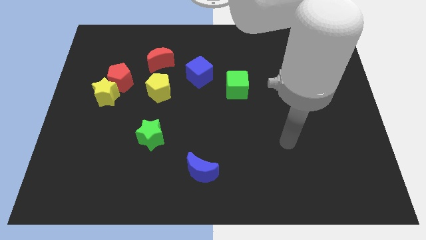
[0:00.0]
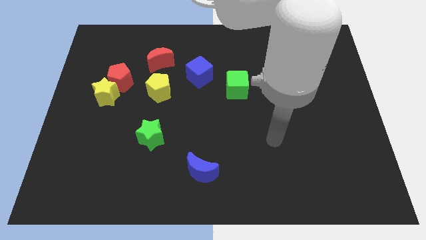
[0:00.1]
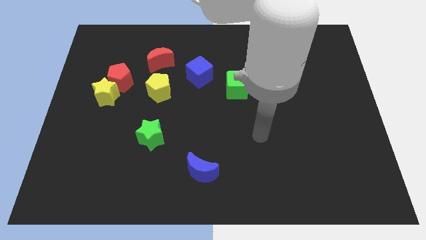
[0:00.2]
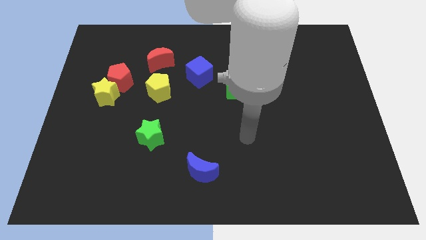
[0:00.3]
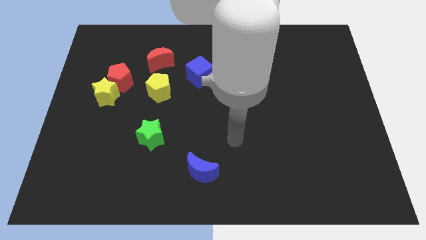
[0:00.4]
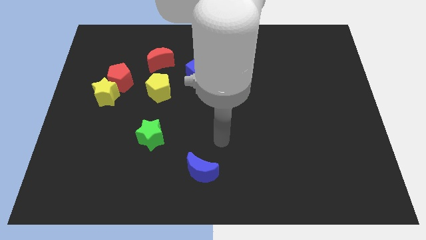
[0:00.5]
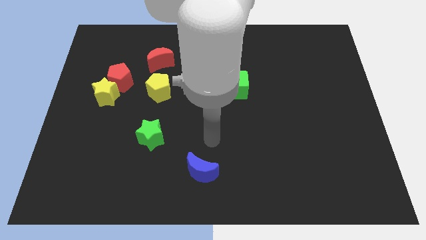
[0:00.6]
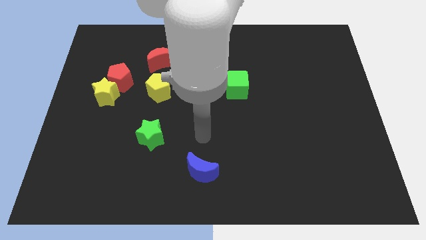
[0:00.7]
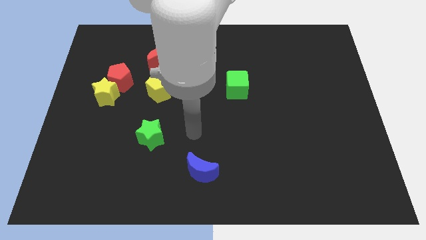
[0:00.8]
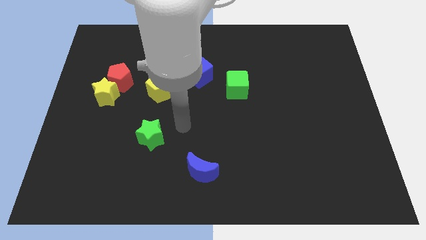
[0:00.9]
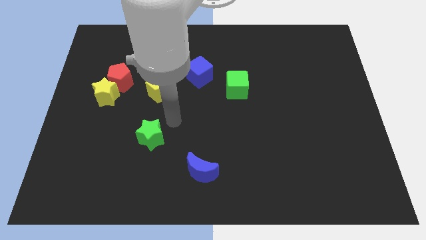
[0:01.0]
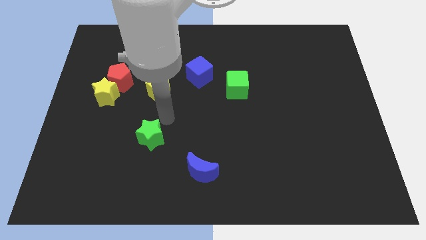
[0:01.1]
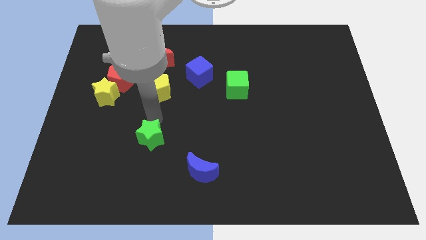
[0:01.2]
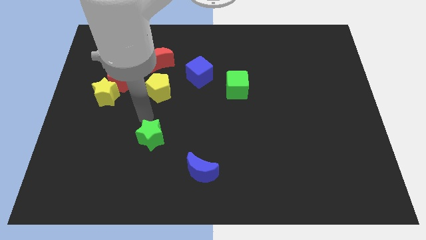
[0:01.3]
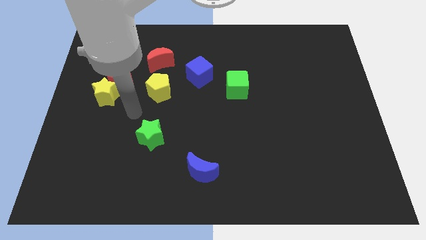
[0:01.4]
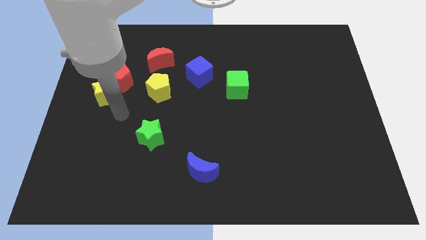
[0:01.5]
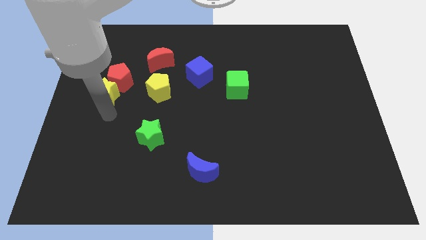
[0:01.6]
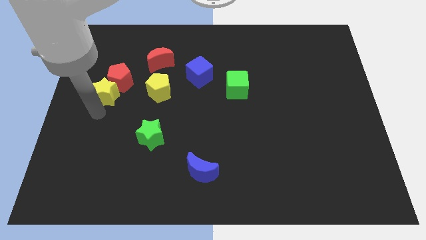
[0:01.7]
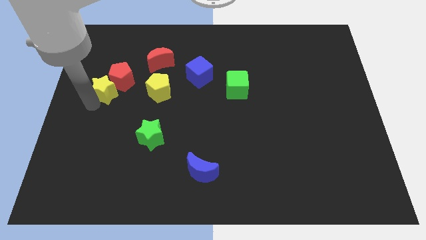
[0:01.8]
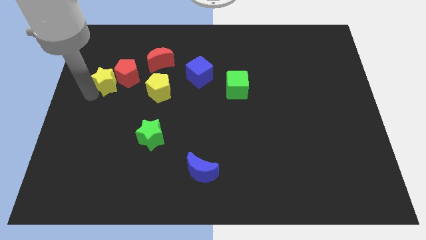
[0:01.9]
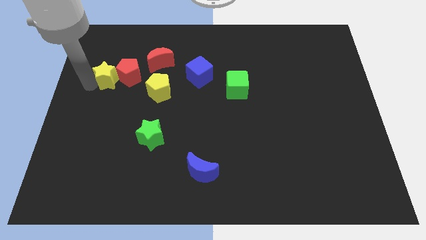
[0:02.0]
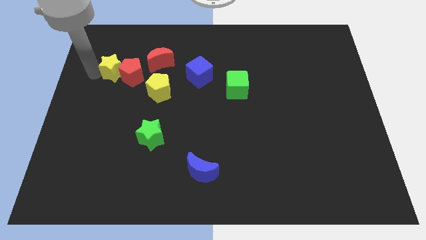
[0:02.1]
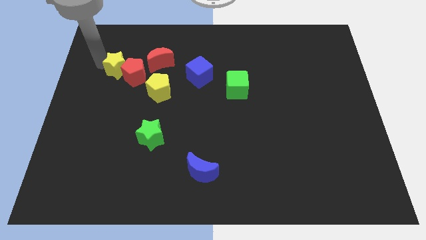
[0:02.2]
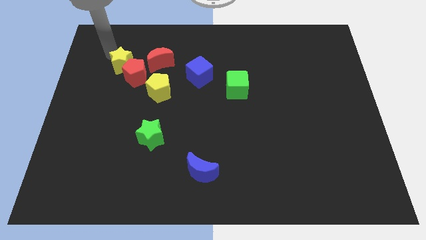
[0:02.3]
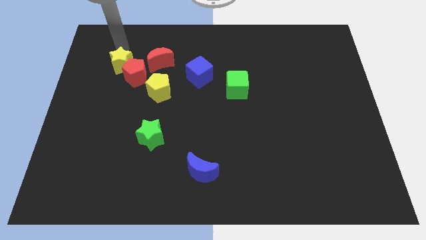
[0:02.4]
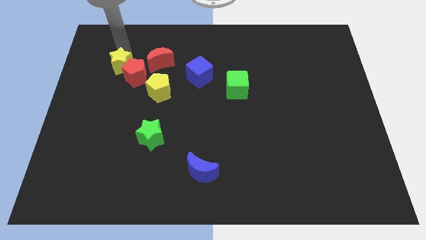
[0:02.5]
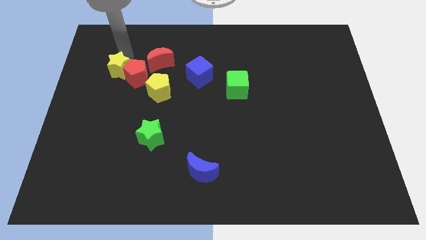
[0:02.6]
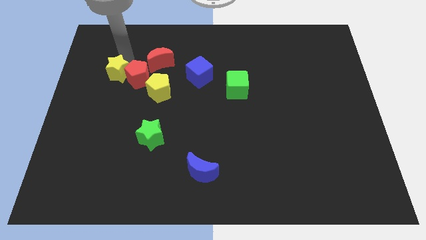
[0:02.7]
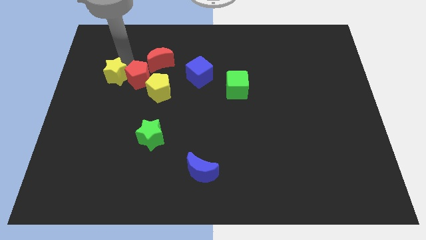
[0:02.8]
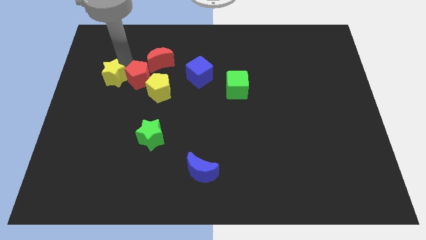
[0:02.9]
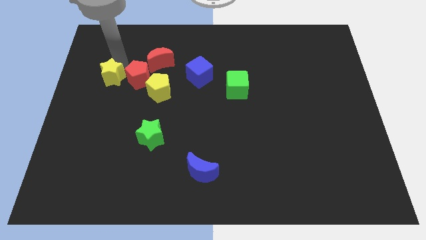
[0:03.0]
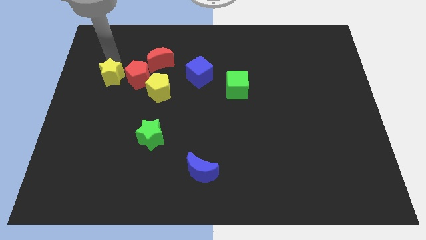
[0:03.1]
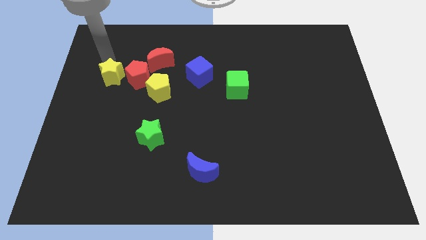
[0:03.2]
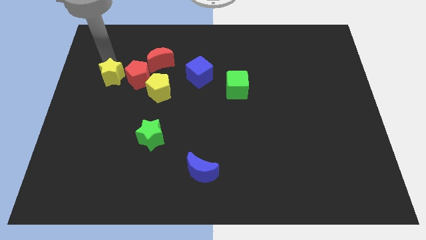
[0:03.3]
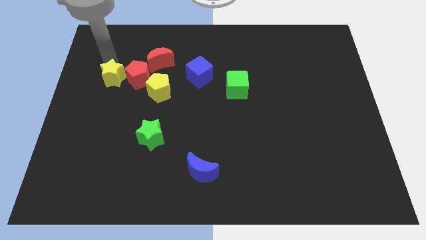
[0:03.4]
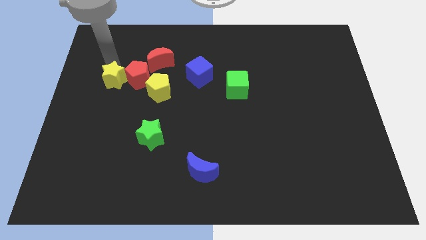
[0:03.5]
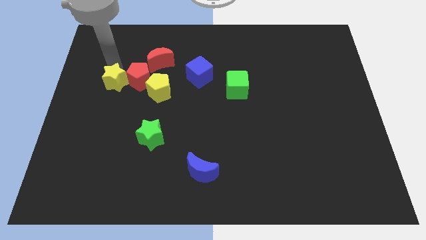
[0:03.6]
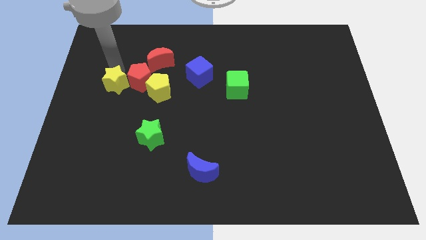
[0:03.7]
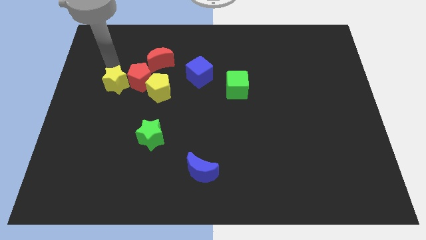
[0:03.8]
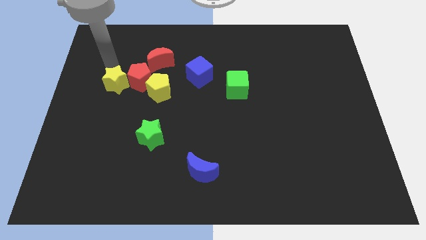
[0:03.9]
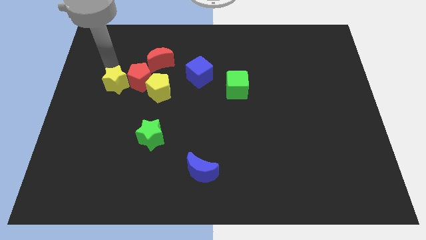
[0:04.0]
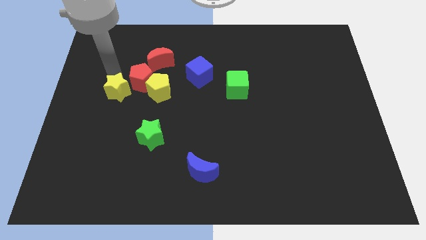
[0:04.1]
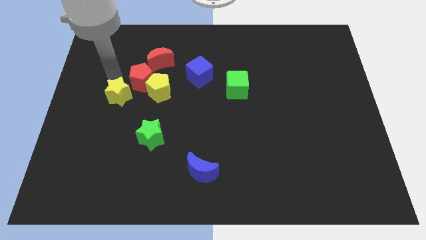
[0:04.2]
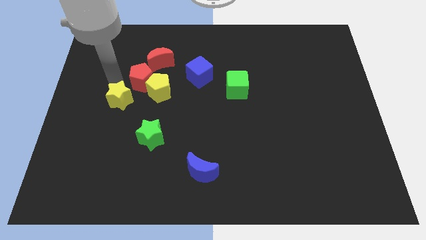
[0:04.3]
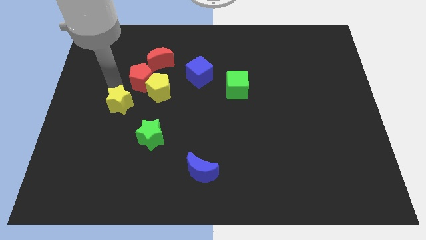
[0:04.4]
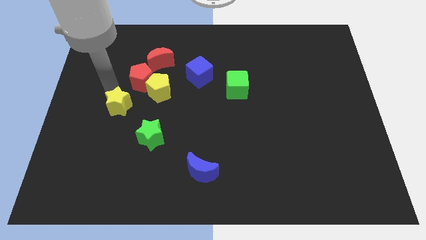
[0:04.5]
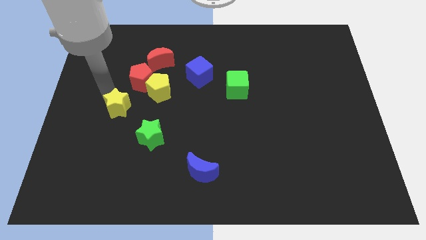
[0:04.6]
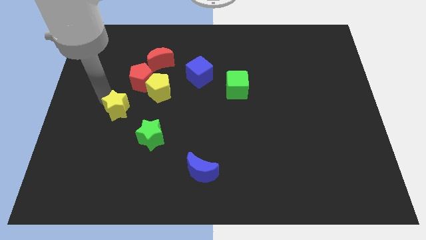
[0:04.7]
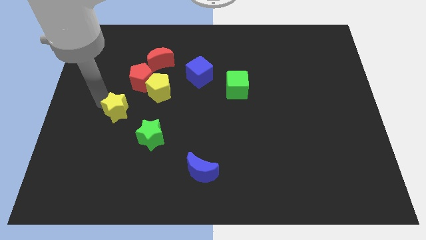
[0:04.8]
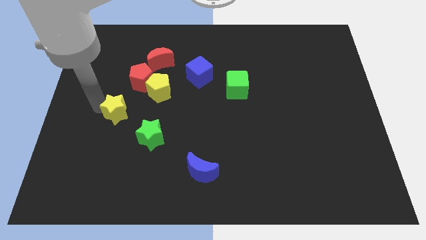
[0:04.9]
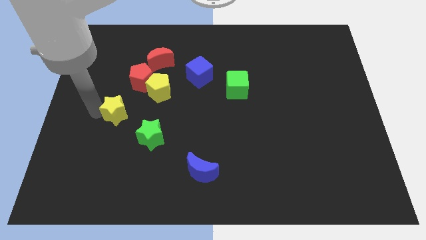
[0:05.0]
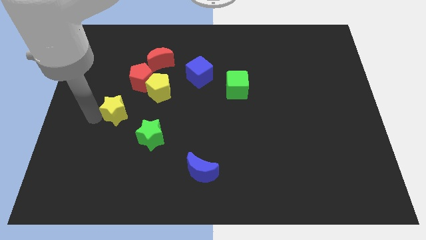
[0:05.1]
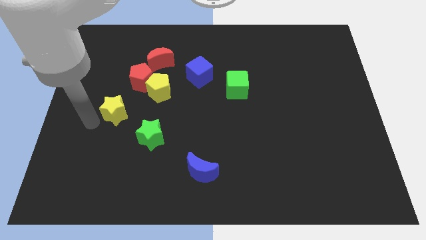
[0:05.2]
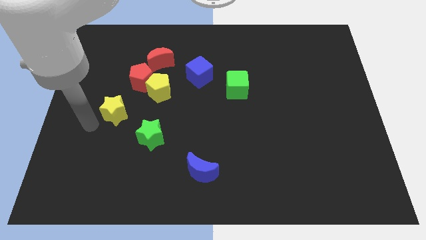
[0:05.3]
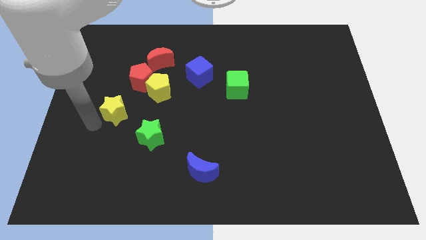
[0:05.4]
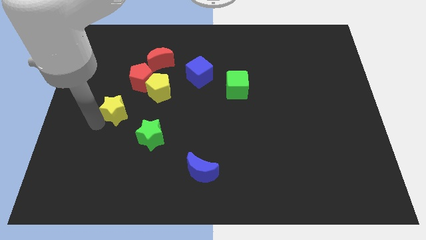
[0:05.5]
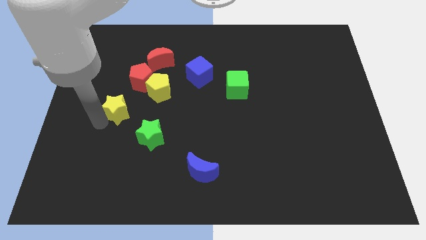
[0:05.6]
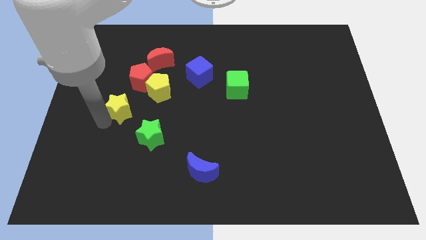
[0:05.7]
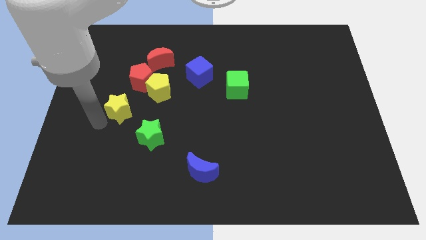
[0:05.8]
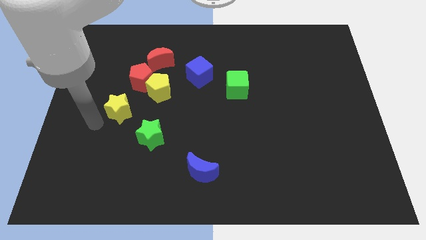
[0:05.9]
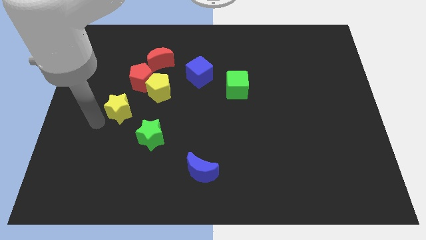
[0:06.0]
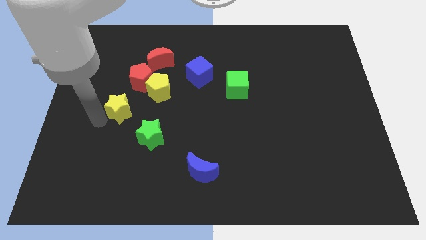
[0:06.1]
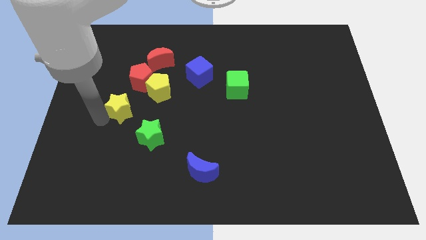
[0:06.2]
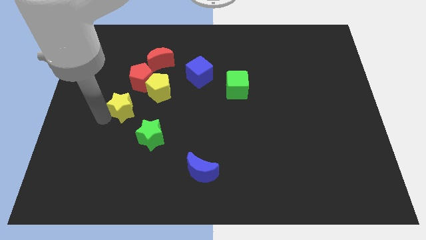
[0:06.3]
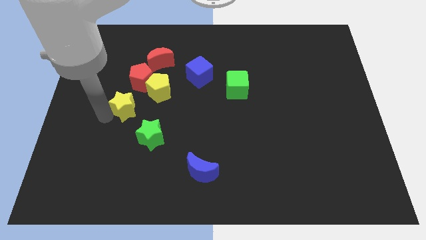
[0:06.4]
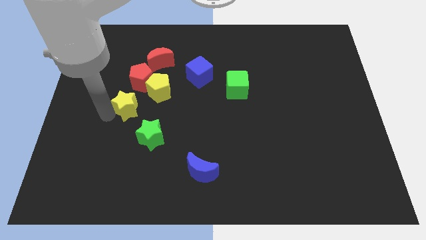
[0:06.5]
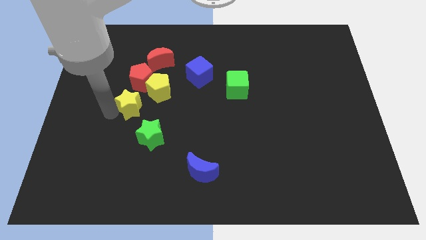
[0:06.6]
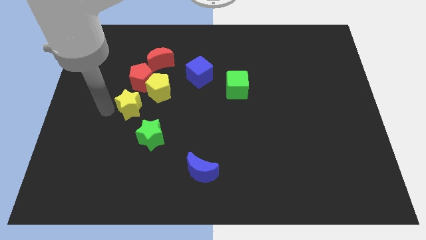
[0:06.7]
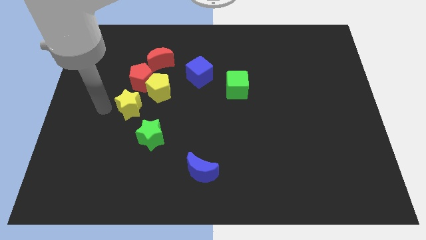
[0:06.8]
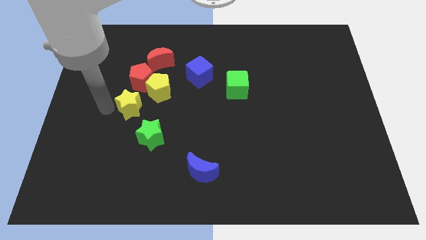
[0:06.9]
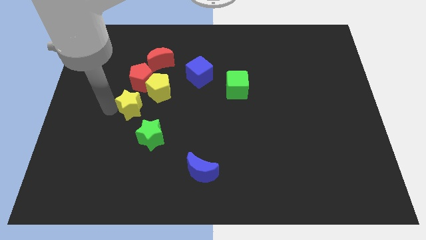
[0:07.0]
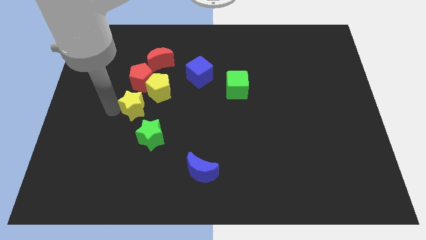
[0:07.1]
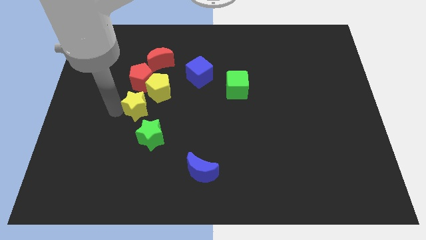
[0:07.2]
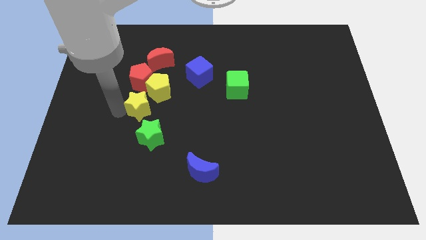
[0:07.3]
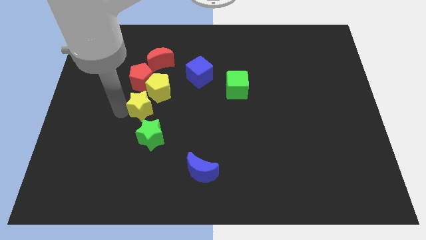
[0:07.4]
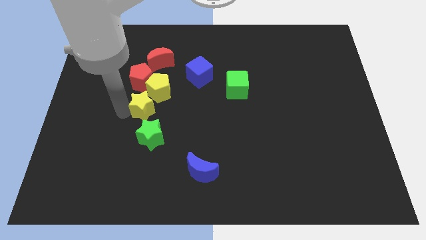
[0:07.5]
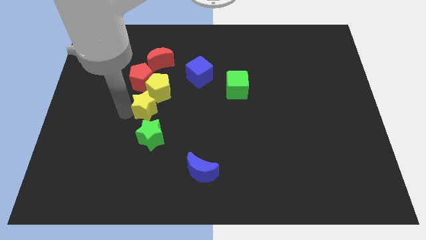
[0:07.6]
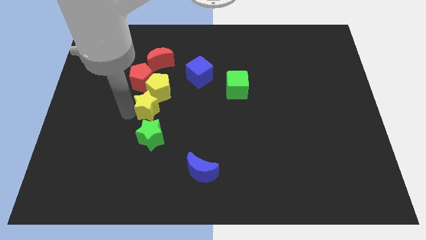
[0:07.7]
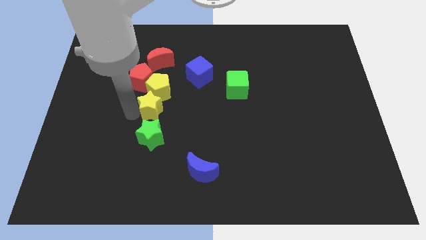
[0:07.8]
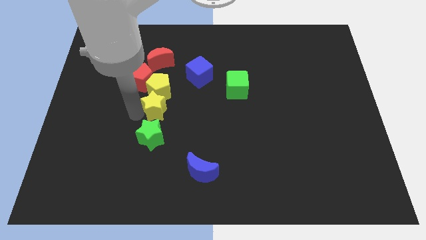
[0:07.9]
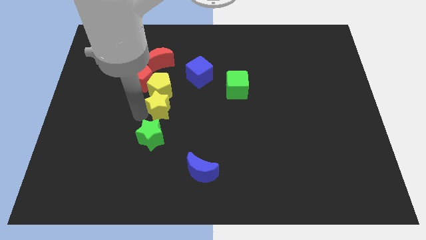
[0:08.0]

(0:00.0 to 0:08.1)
slide the yellow star to the center
